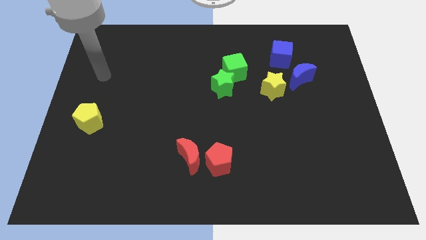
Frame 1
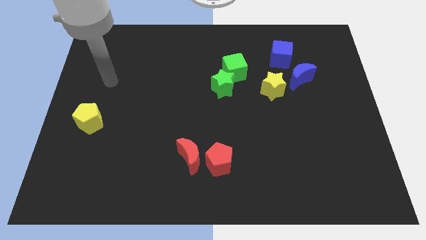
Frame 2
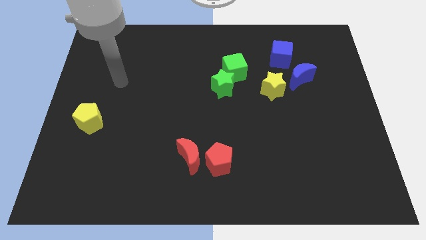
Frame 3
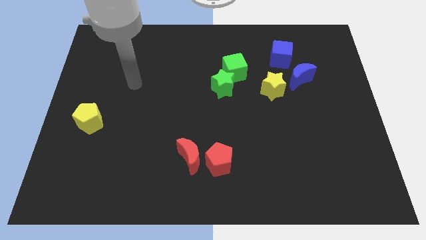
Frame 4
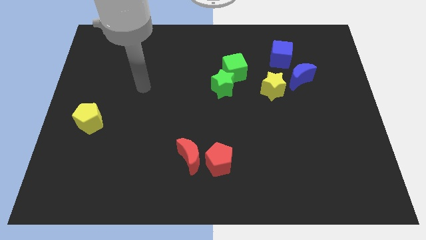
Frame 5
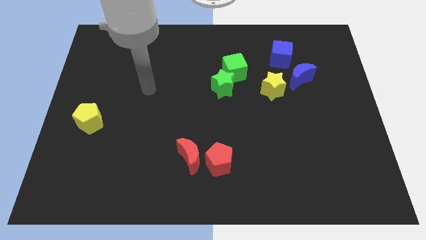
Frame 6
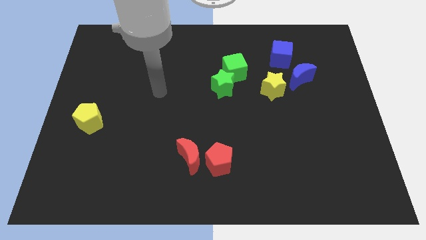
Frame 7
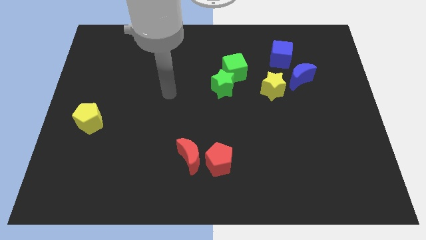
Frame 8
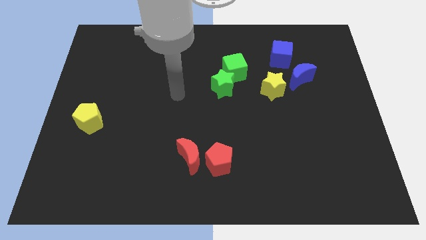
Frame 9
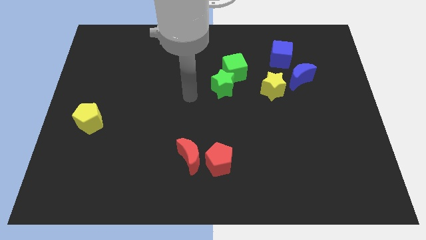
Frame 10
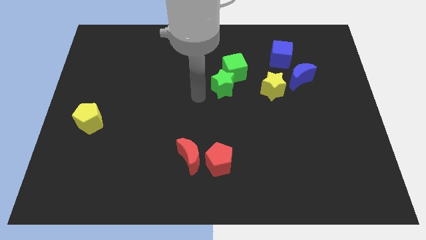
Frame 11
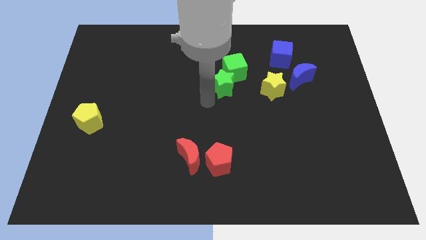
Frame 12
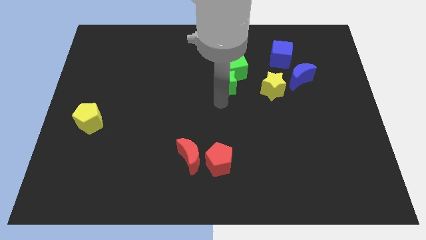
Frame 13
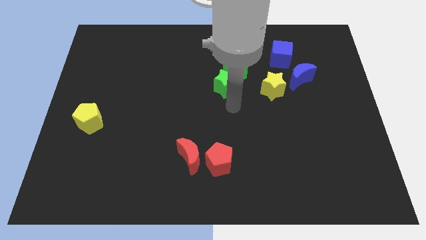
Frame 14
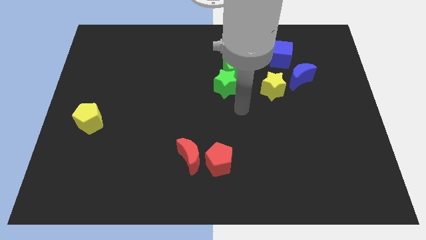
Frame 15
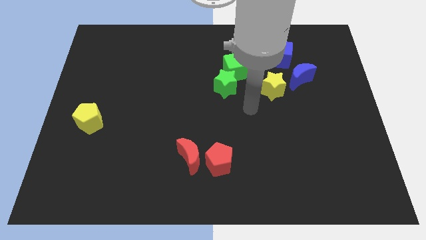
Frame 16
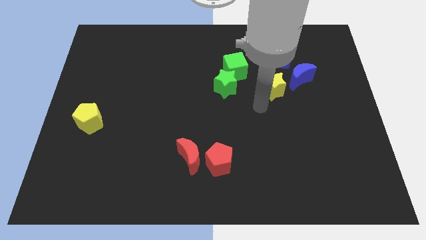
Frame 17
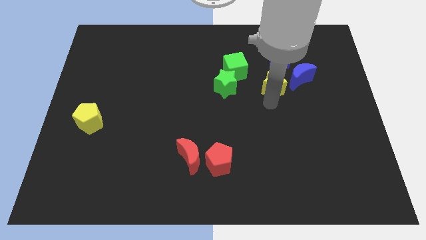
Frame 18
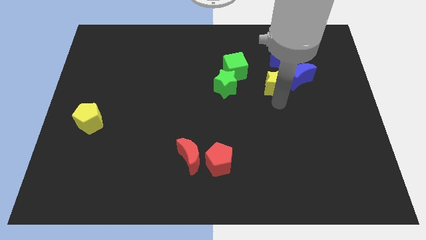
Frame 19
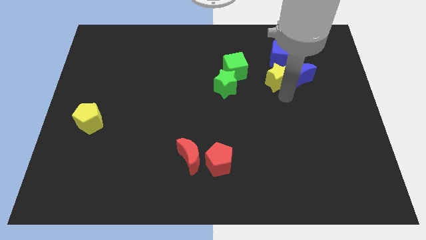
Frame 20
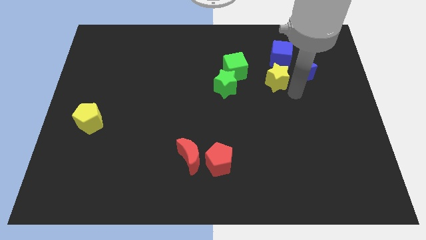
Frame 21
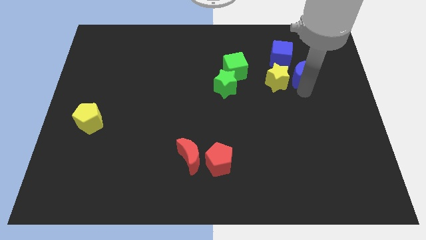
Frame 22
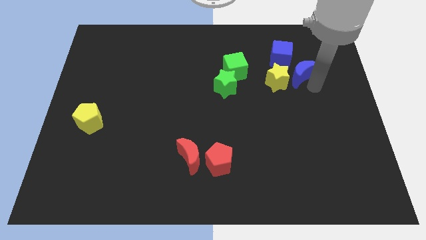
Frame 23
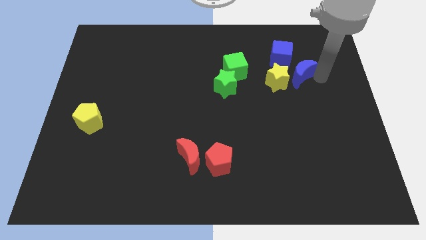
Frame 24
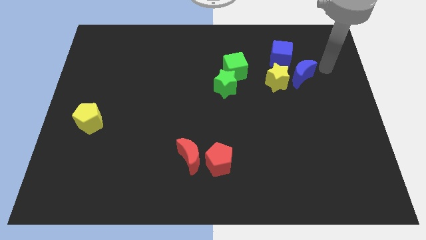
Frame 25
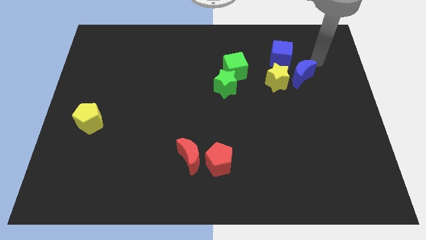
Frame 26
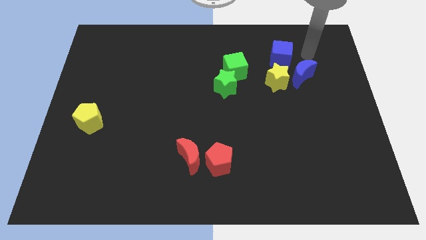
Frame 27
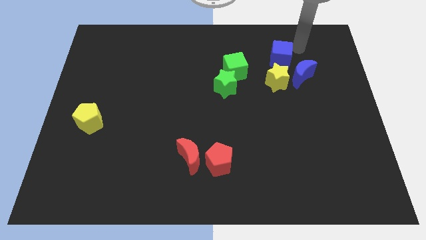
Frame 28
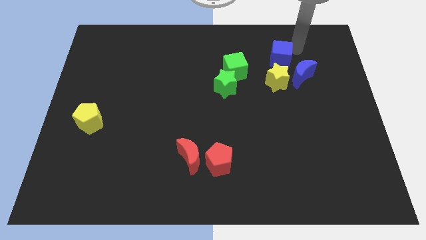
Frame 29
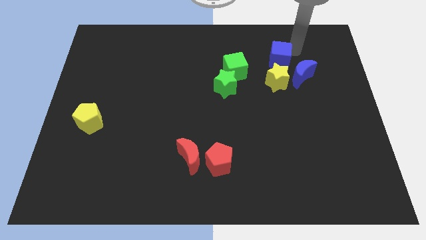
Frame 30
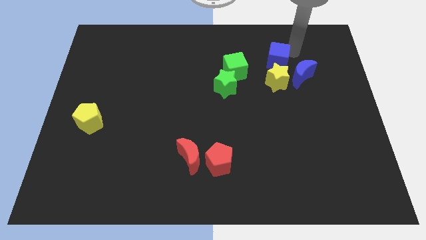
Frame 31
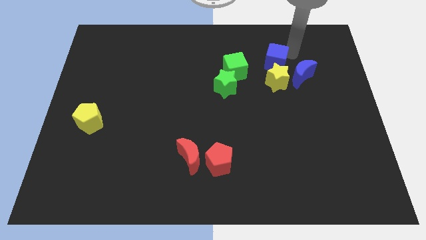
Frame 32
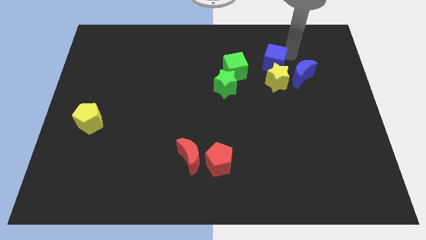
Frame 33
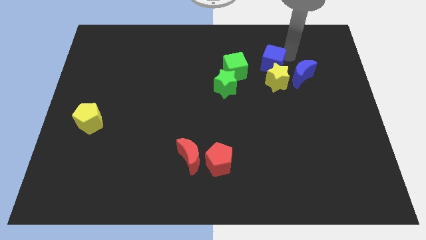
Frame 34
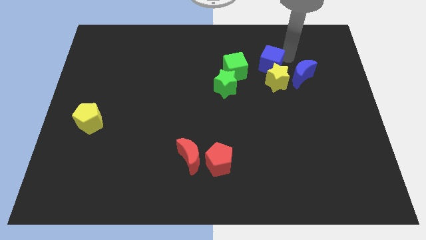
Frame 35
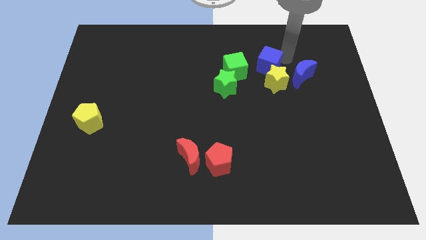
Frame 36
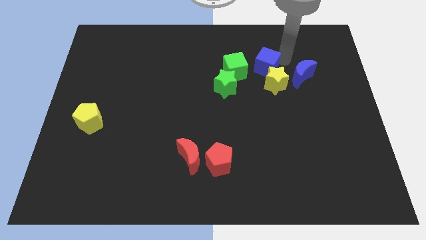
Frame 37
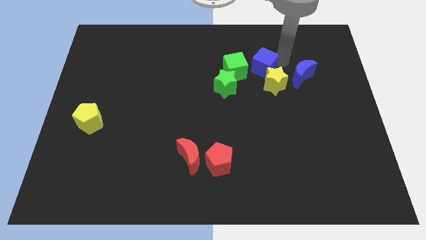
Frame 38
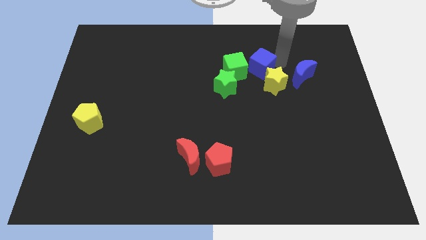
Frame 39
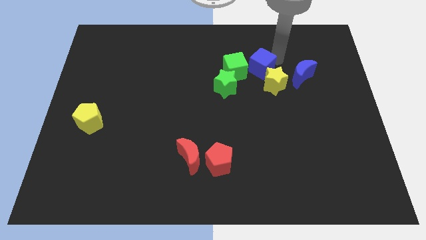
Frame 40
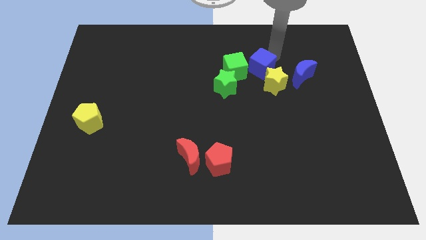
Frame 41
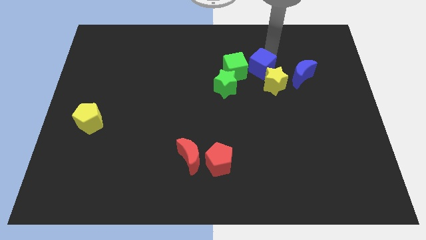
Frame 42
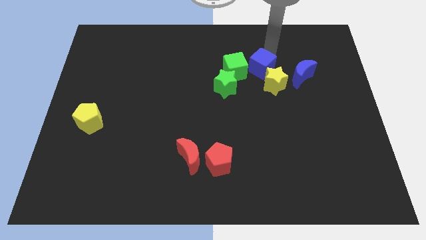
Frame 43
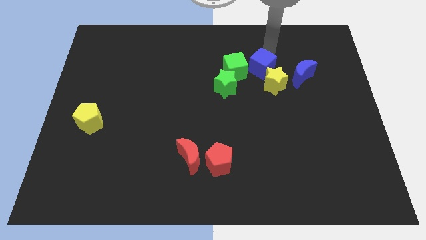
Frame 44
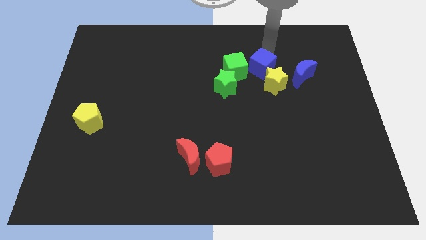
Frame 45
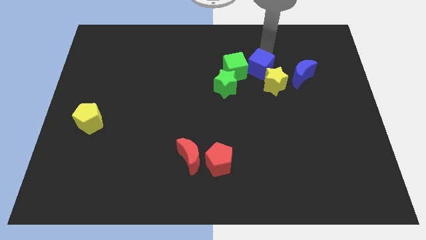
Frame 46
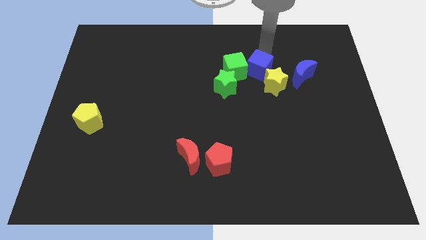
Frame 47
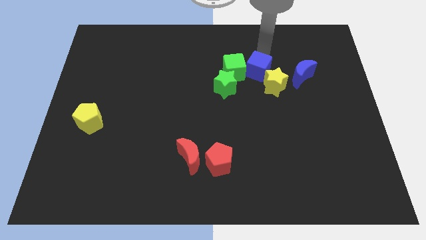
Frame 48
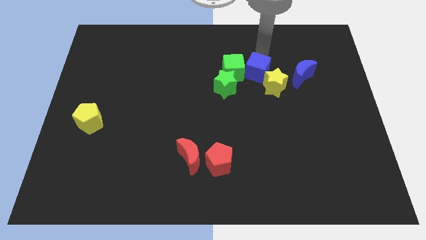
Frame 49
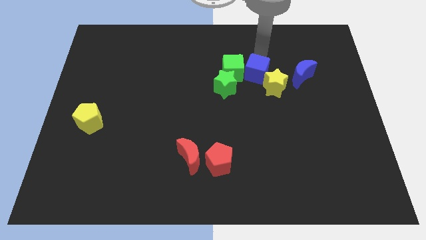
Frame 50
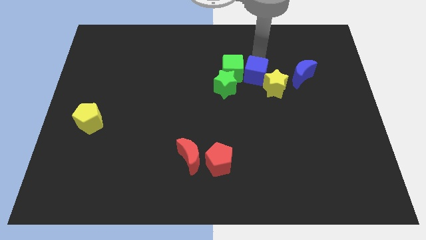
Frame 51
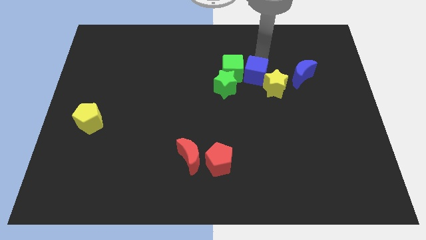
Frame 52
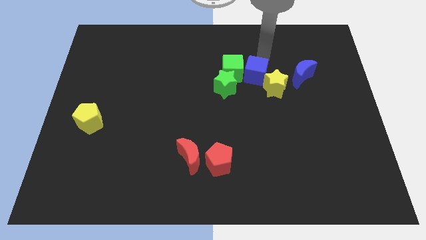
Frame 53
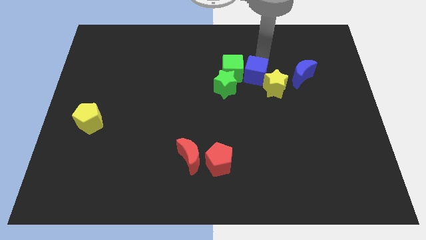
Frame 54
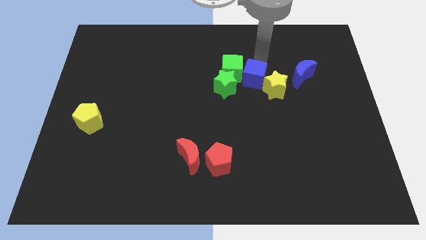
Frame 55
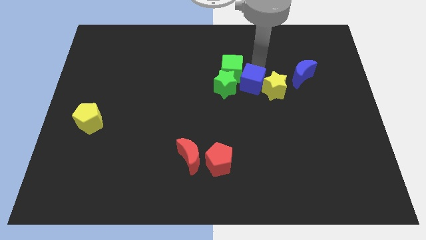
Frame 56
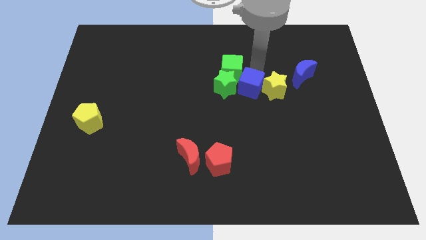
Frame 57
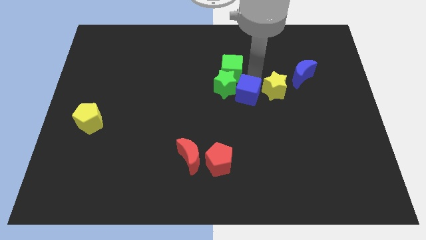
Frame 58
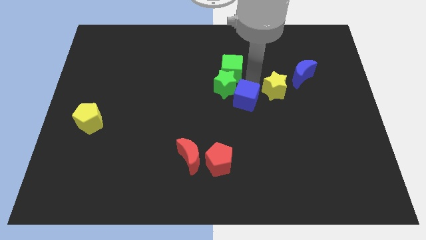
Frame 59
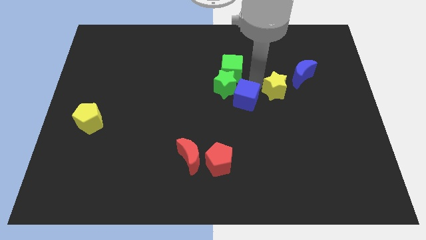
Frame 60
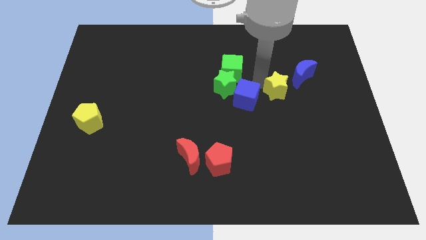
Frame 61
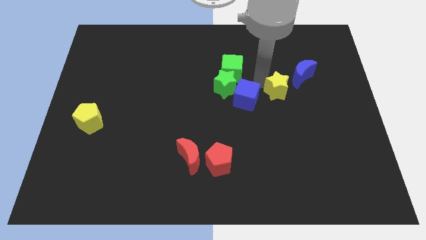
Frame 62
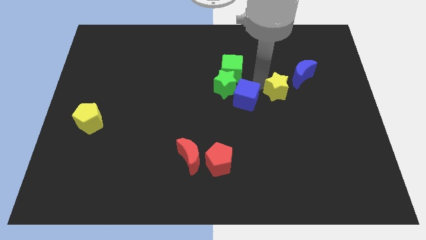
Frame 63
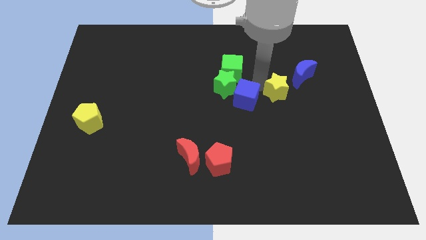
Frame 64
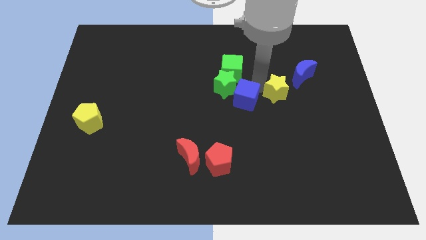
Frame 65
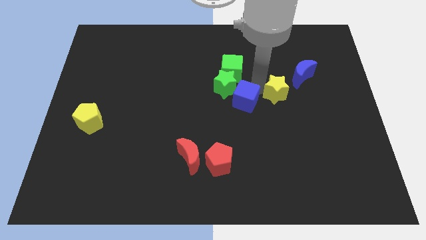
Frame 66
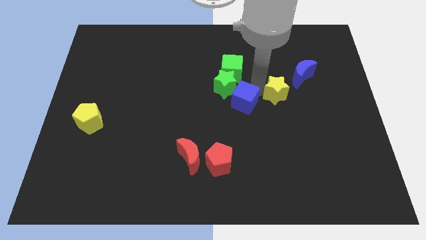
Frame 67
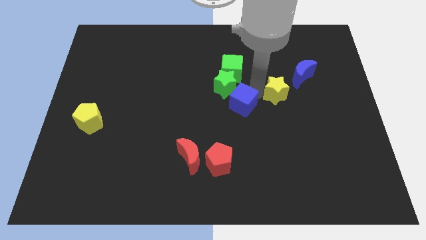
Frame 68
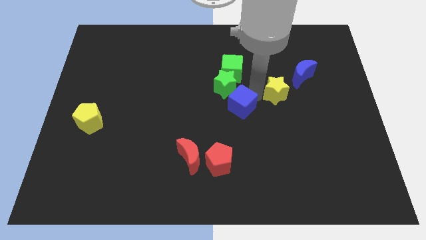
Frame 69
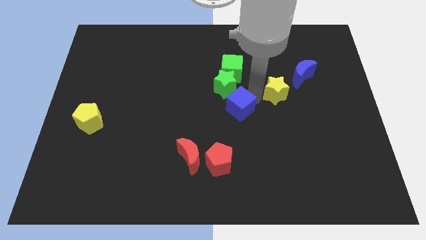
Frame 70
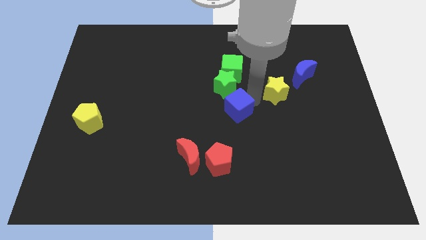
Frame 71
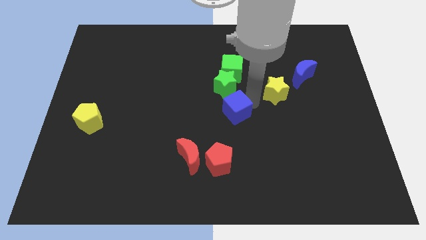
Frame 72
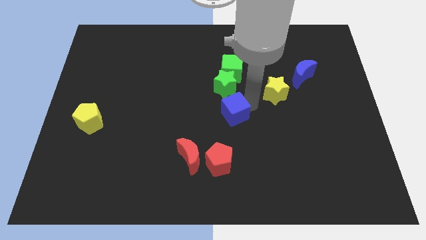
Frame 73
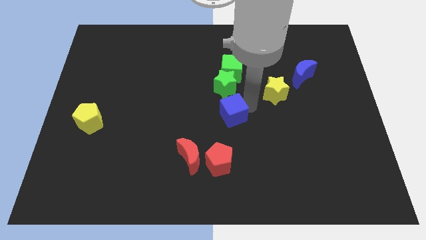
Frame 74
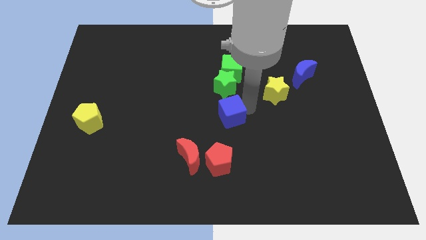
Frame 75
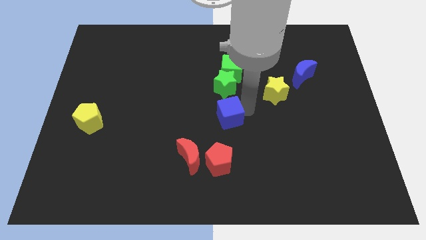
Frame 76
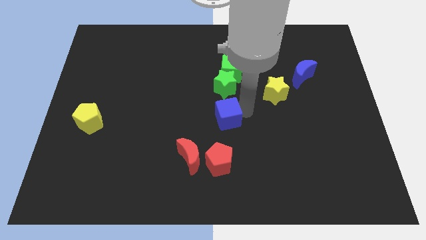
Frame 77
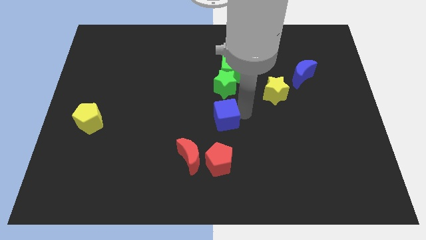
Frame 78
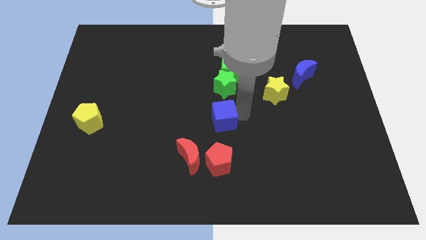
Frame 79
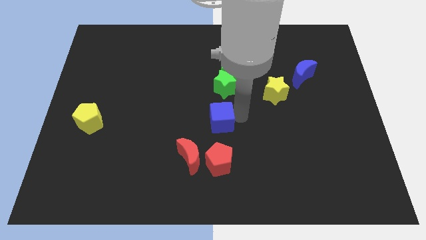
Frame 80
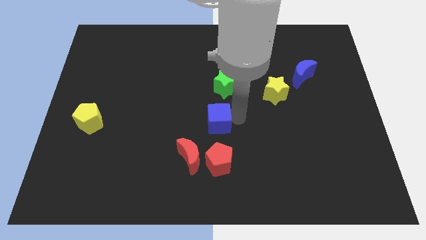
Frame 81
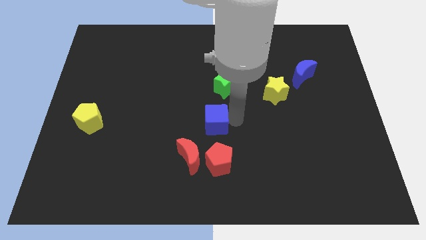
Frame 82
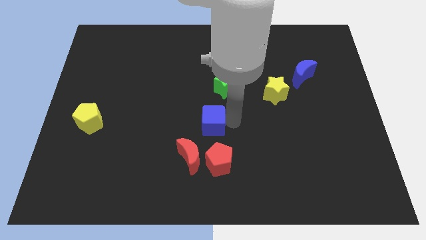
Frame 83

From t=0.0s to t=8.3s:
put the blue cube to the top of the red moon
